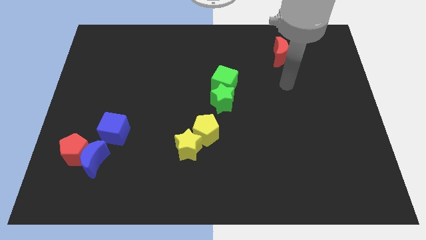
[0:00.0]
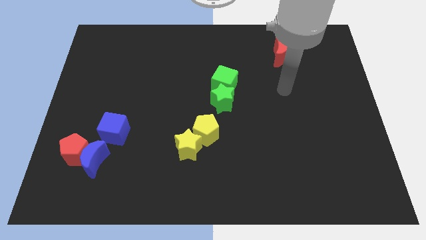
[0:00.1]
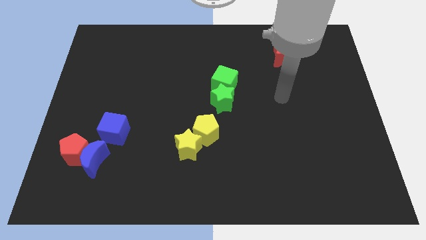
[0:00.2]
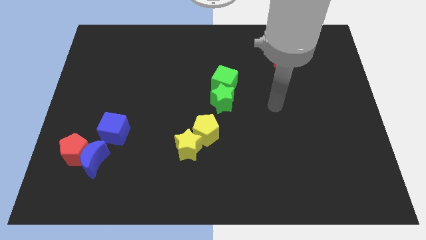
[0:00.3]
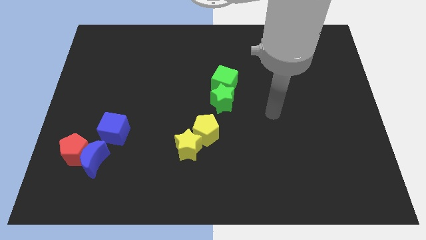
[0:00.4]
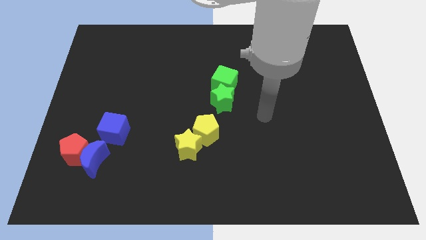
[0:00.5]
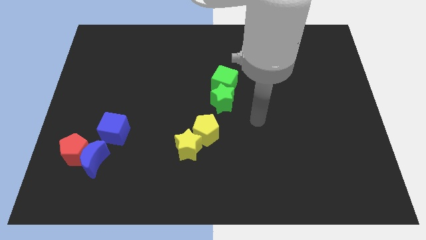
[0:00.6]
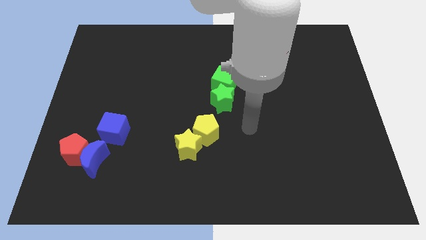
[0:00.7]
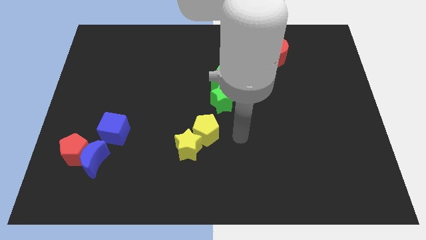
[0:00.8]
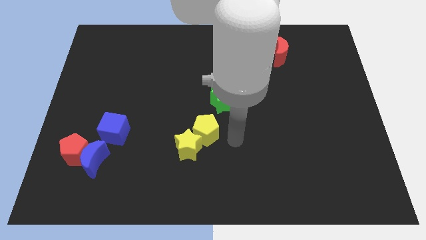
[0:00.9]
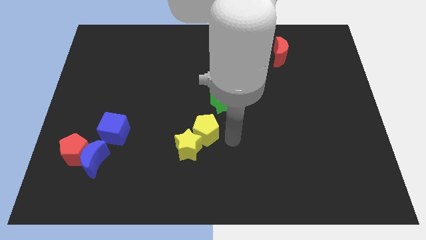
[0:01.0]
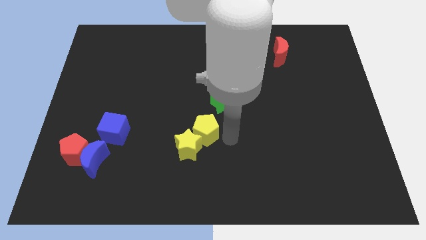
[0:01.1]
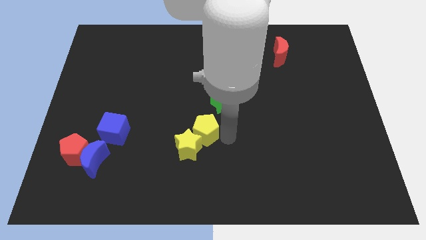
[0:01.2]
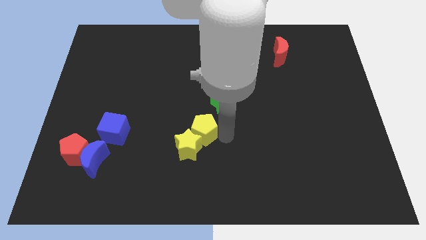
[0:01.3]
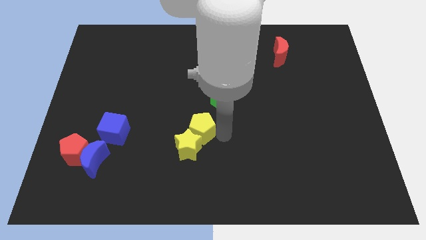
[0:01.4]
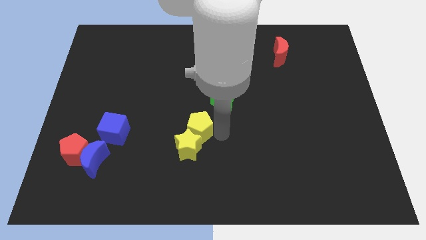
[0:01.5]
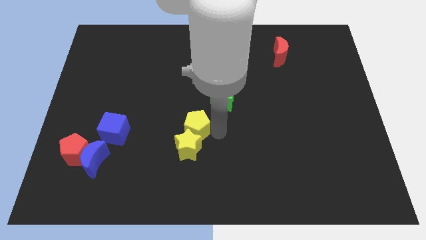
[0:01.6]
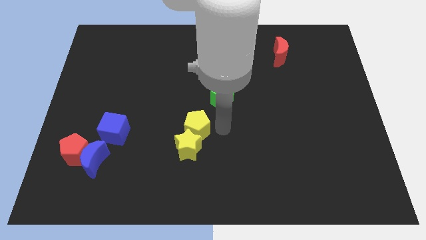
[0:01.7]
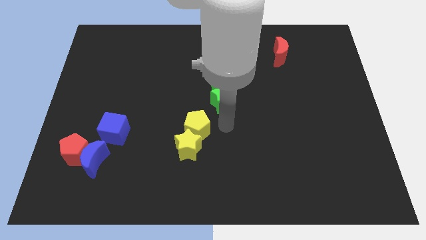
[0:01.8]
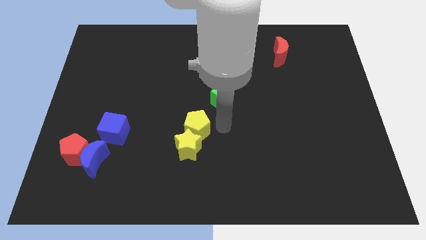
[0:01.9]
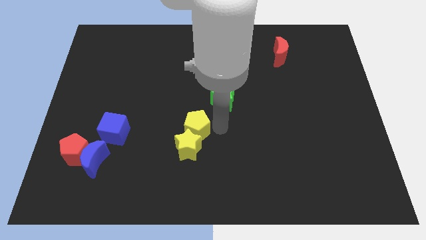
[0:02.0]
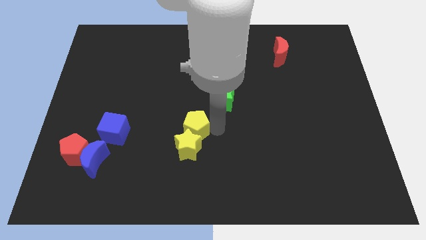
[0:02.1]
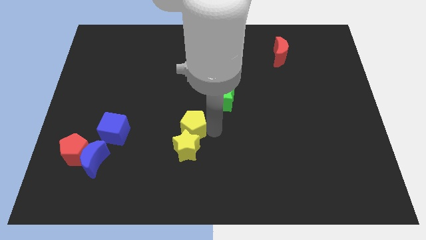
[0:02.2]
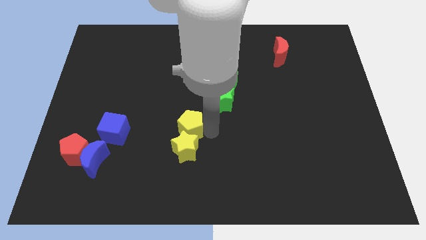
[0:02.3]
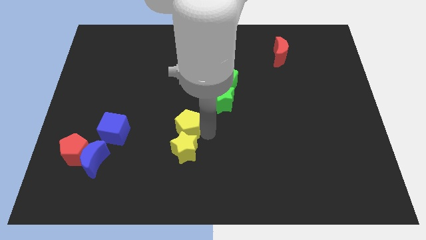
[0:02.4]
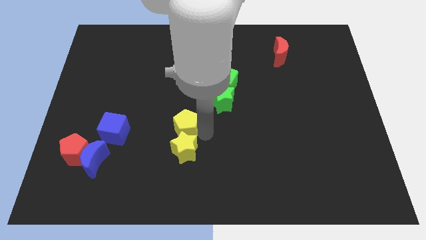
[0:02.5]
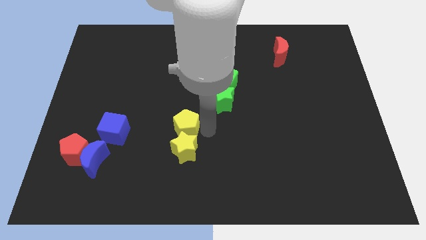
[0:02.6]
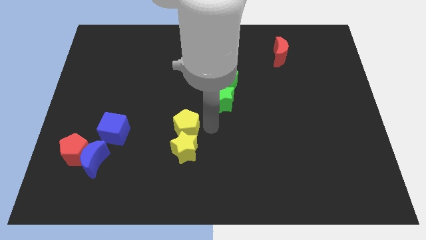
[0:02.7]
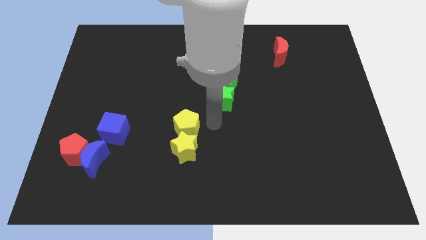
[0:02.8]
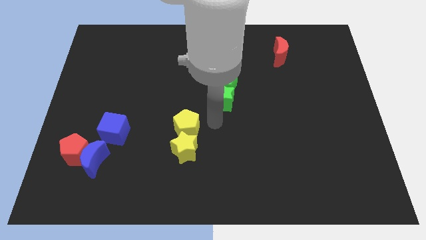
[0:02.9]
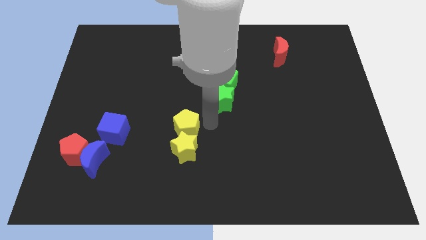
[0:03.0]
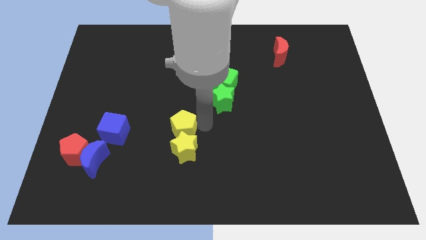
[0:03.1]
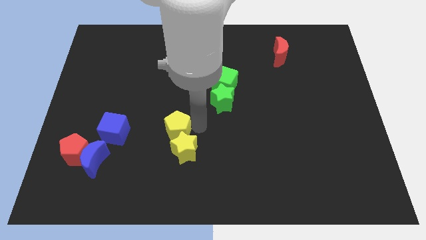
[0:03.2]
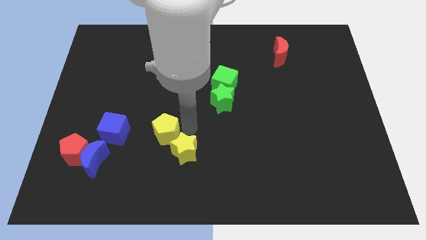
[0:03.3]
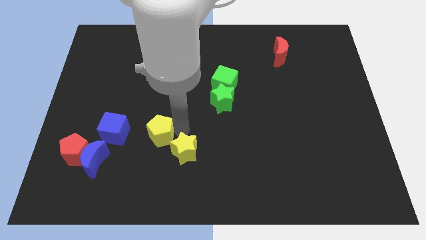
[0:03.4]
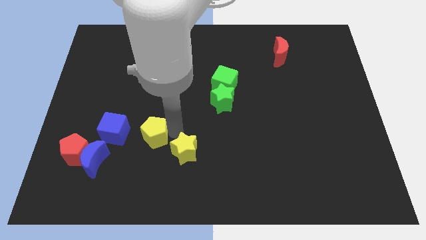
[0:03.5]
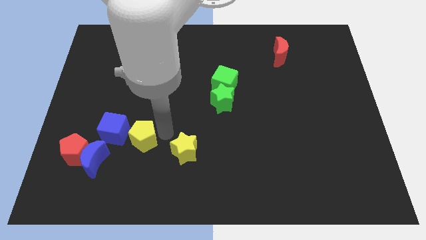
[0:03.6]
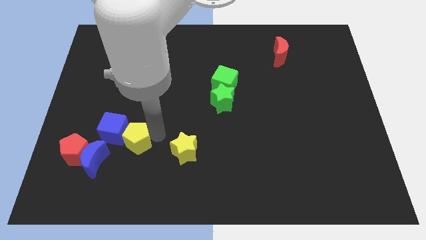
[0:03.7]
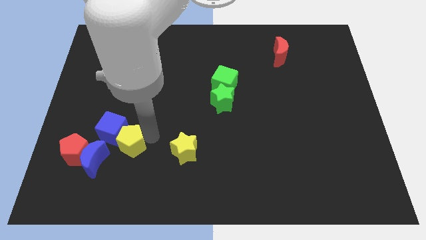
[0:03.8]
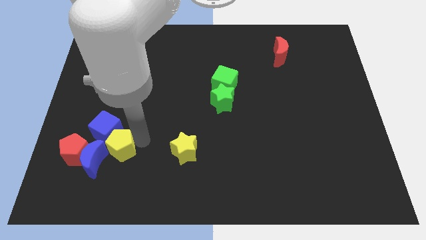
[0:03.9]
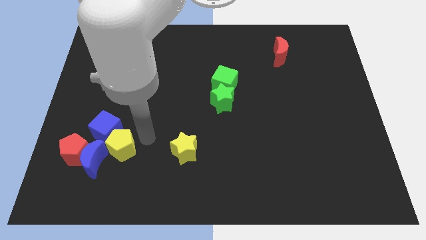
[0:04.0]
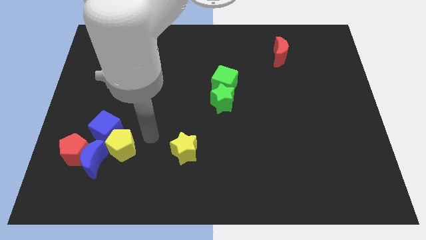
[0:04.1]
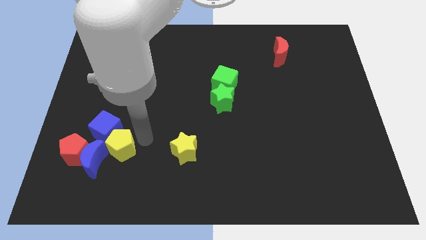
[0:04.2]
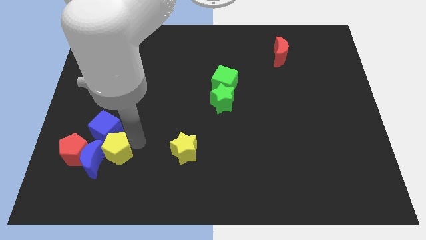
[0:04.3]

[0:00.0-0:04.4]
push the yellow pentagon next to the blue moon

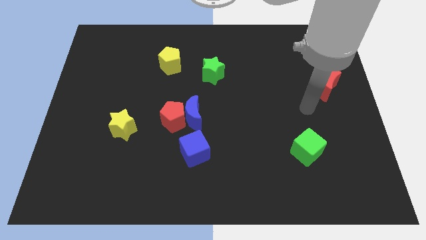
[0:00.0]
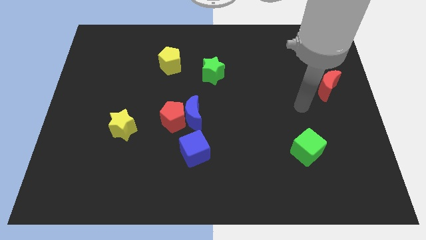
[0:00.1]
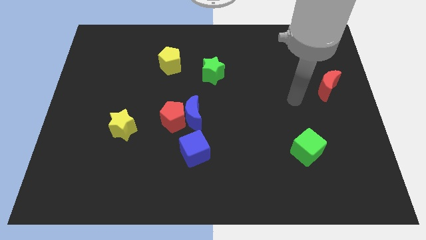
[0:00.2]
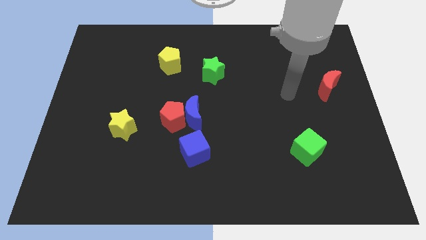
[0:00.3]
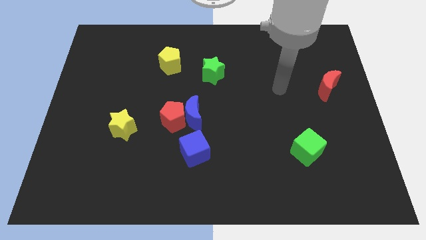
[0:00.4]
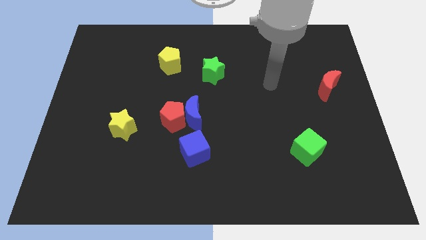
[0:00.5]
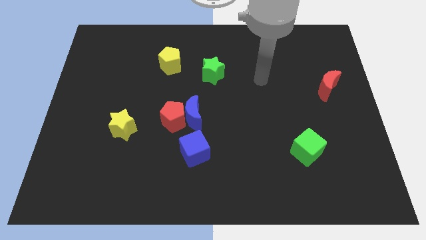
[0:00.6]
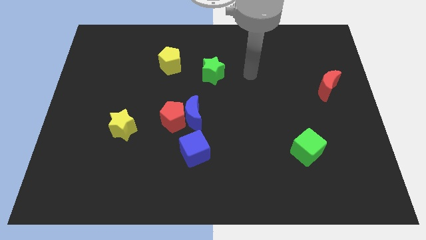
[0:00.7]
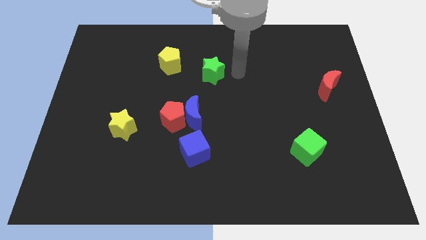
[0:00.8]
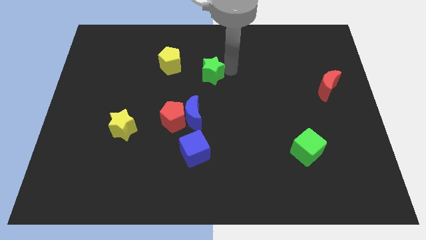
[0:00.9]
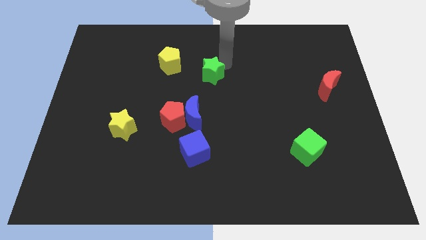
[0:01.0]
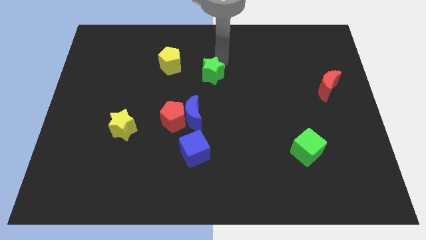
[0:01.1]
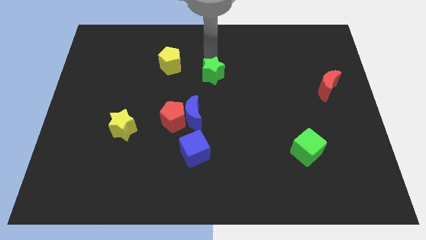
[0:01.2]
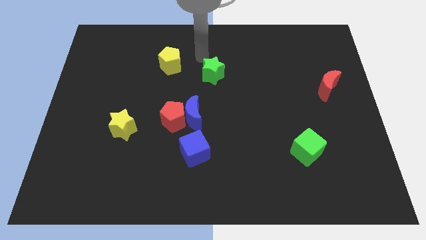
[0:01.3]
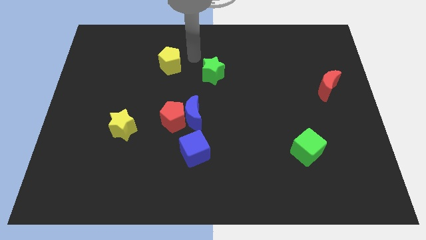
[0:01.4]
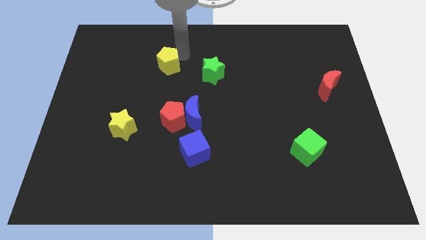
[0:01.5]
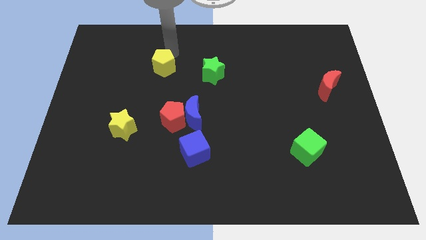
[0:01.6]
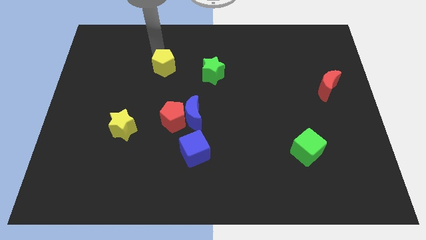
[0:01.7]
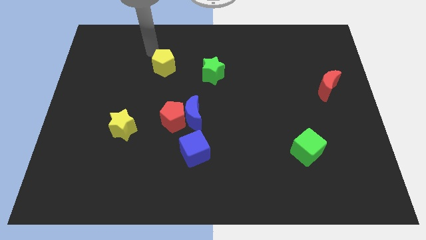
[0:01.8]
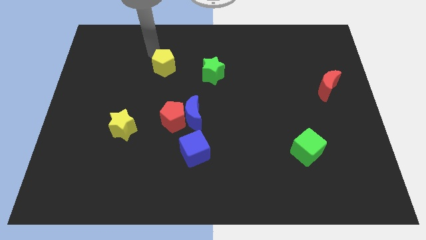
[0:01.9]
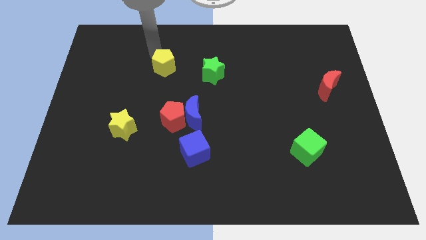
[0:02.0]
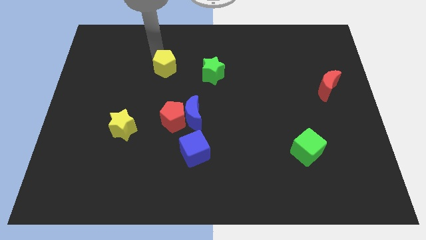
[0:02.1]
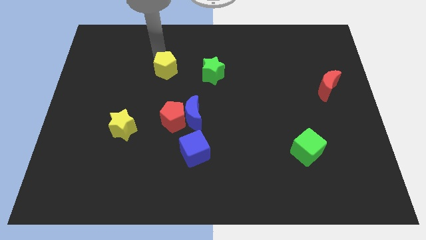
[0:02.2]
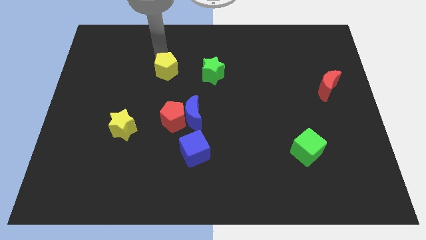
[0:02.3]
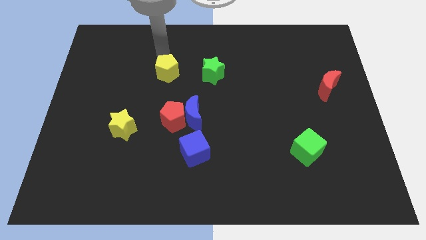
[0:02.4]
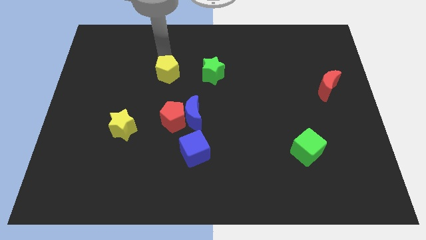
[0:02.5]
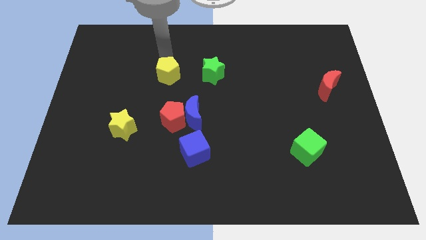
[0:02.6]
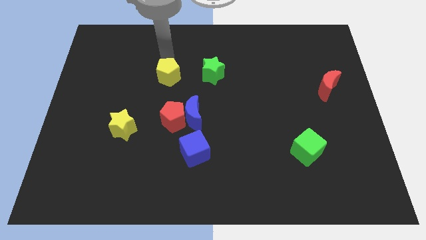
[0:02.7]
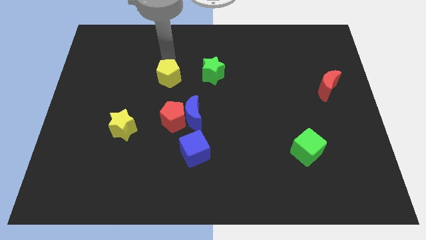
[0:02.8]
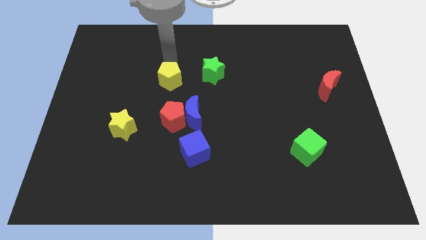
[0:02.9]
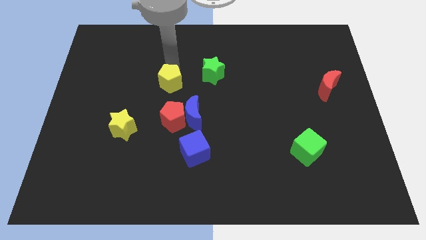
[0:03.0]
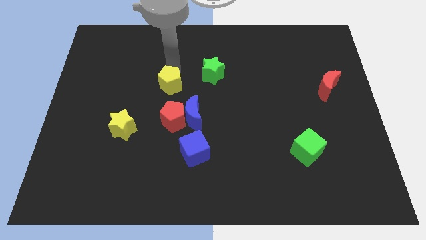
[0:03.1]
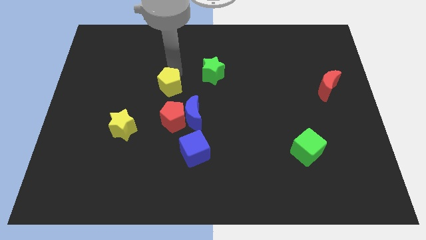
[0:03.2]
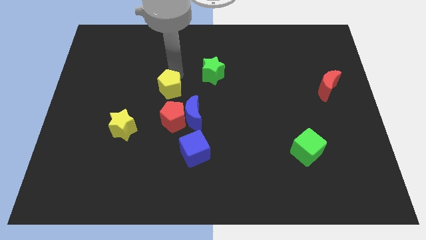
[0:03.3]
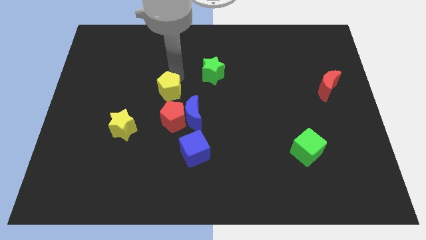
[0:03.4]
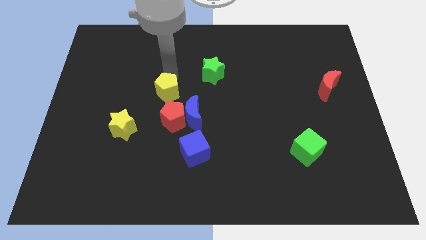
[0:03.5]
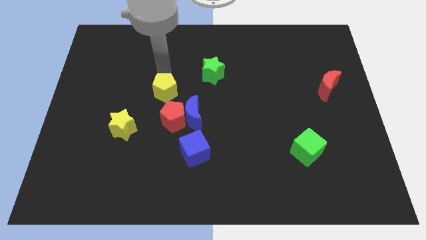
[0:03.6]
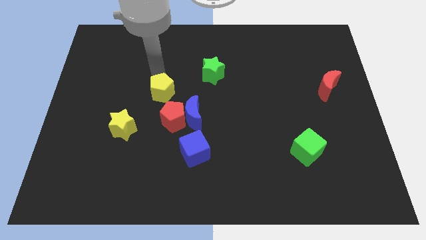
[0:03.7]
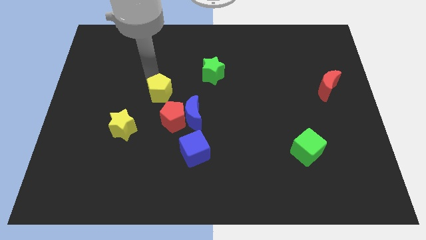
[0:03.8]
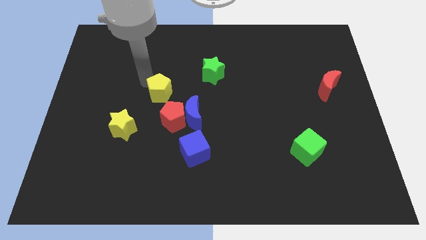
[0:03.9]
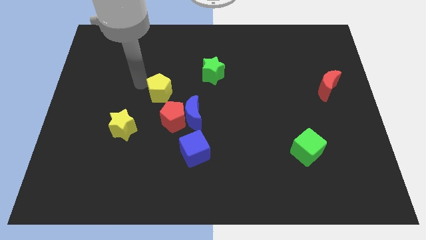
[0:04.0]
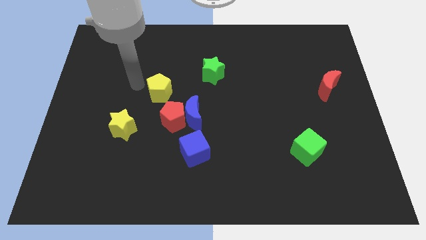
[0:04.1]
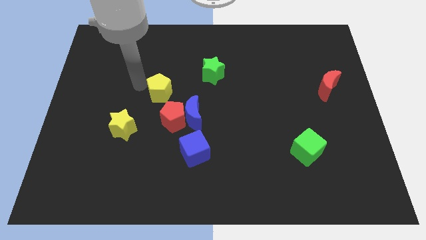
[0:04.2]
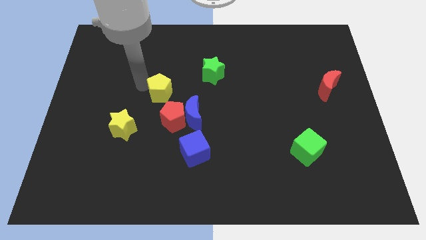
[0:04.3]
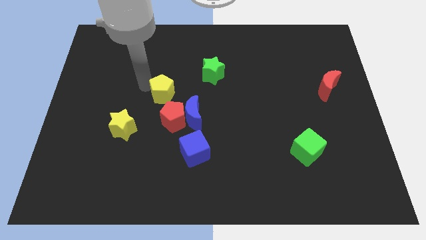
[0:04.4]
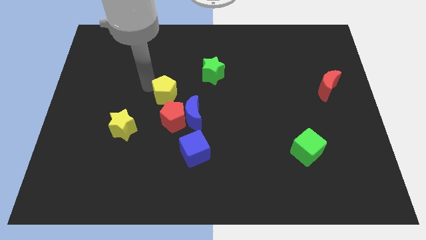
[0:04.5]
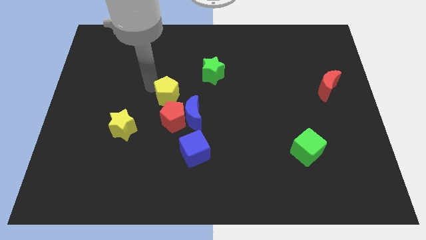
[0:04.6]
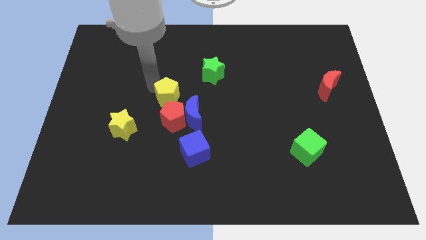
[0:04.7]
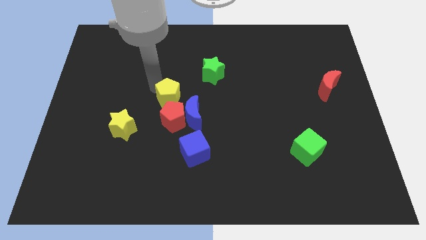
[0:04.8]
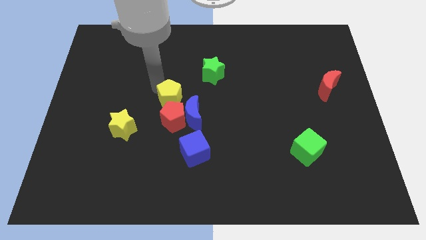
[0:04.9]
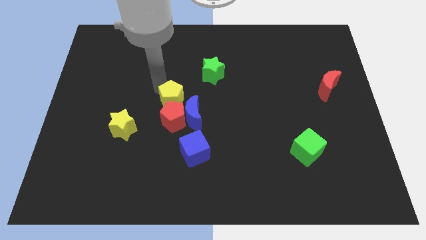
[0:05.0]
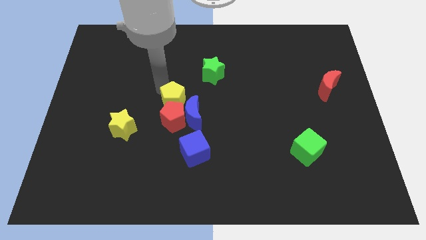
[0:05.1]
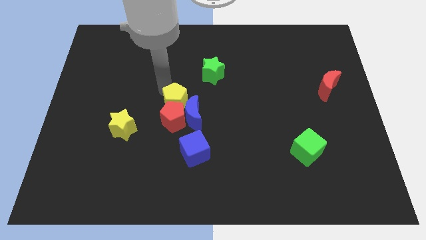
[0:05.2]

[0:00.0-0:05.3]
slide the yellow pentagon next to the blue moon
